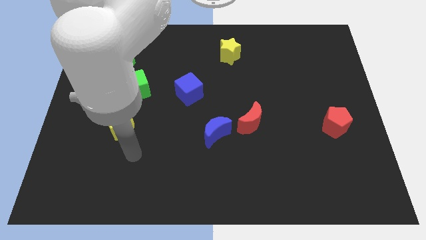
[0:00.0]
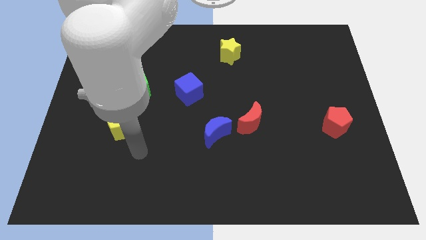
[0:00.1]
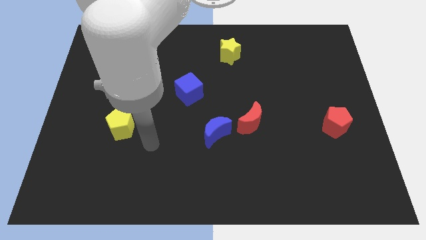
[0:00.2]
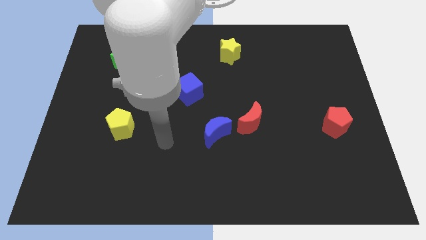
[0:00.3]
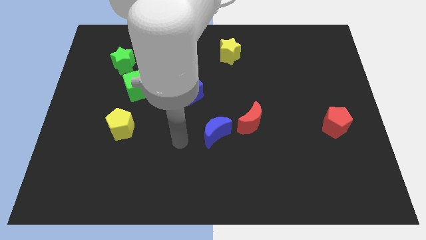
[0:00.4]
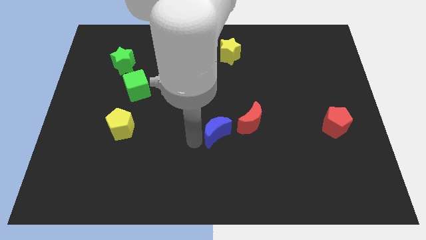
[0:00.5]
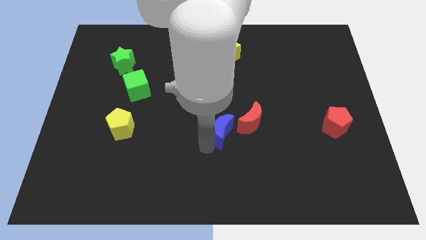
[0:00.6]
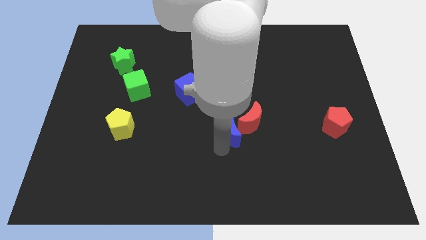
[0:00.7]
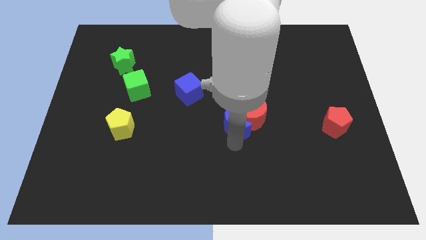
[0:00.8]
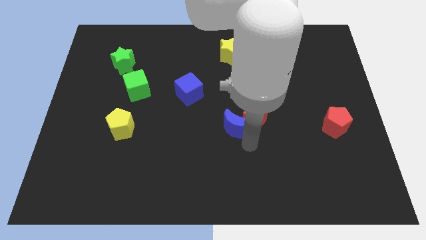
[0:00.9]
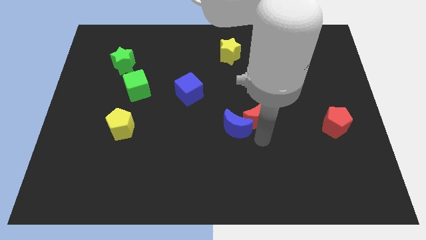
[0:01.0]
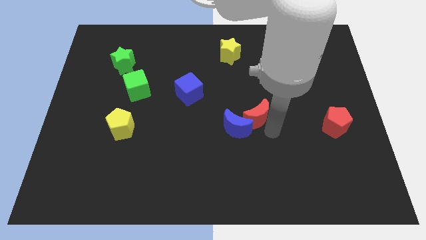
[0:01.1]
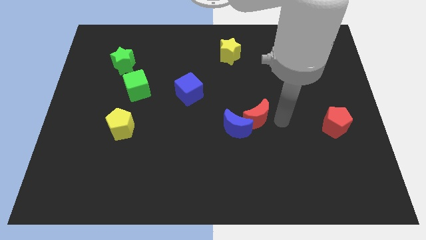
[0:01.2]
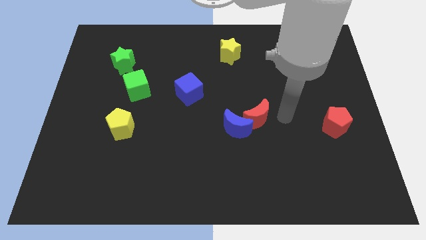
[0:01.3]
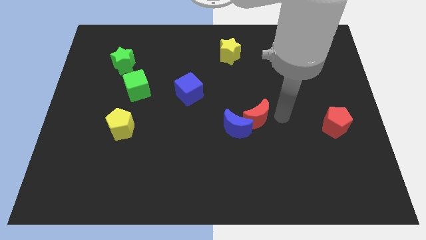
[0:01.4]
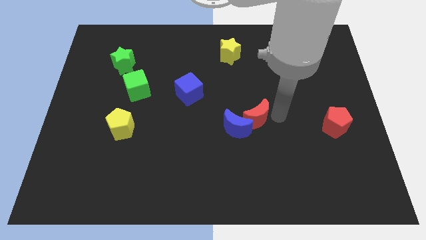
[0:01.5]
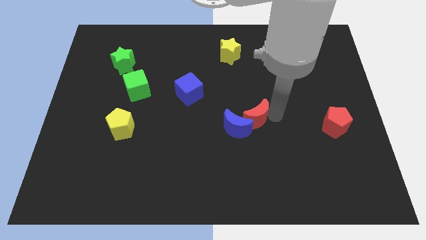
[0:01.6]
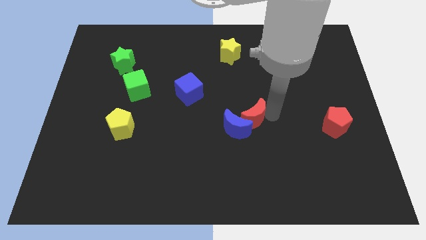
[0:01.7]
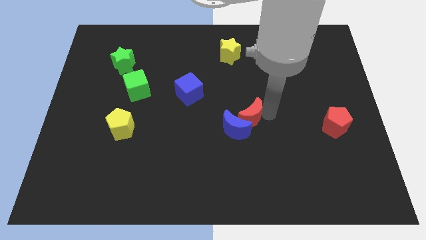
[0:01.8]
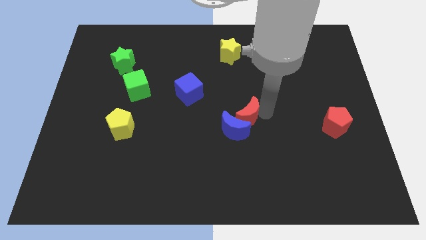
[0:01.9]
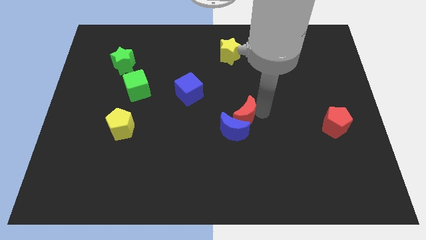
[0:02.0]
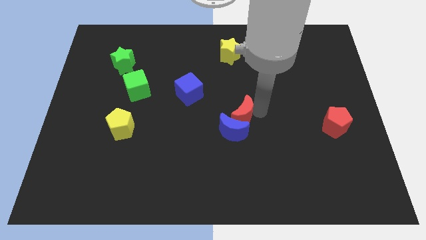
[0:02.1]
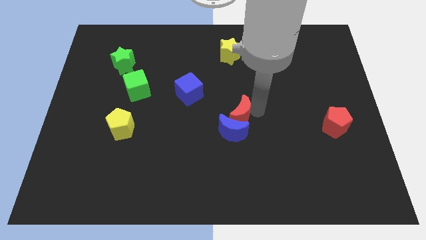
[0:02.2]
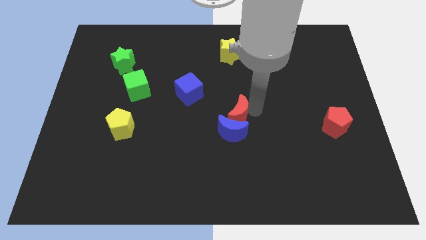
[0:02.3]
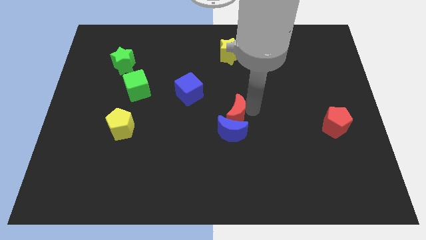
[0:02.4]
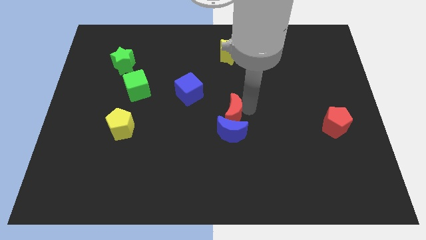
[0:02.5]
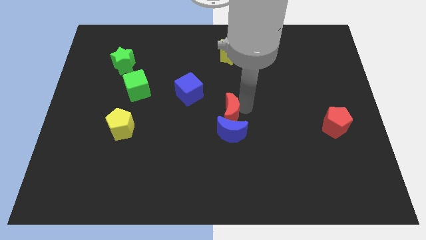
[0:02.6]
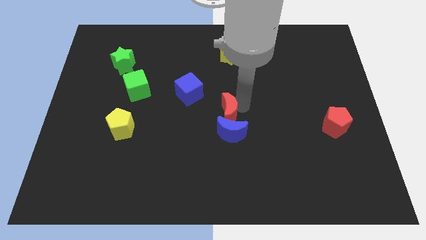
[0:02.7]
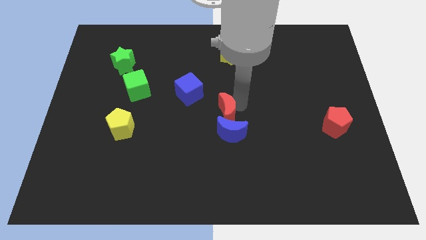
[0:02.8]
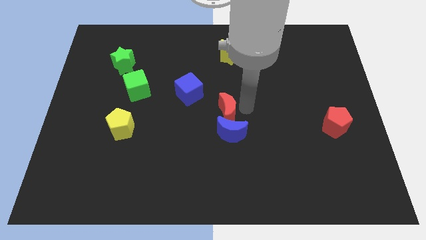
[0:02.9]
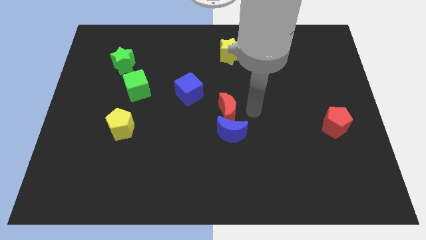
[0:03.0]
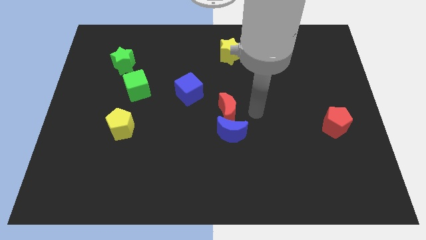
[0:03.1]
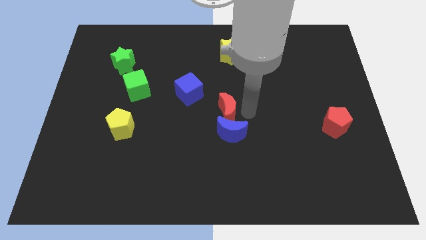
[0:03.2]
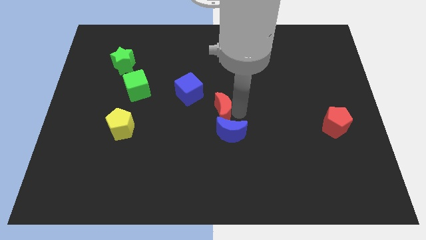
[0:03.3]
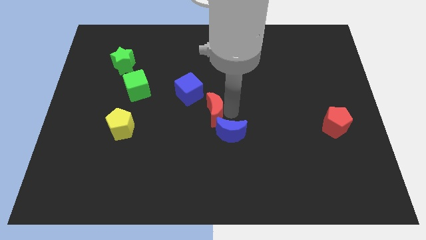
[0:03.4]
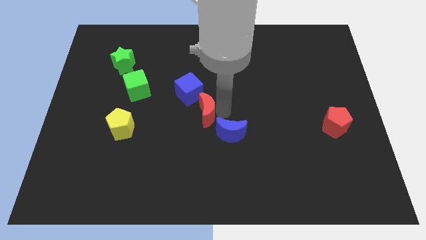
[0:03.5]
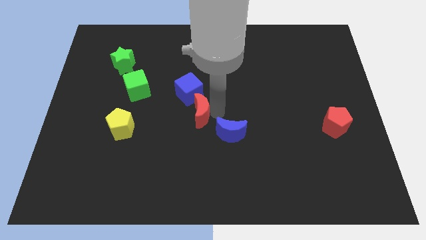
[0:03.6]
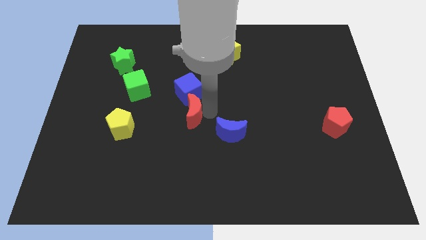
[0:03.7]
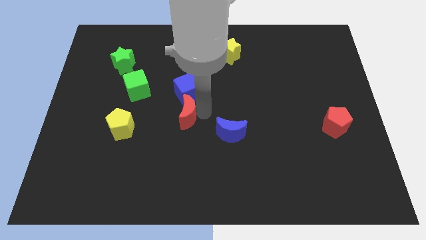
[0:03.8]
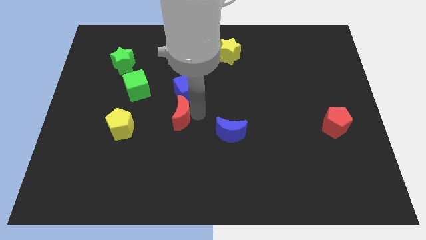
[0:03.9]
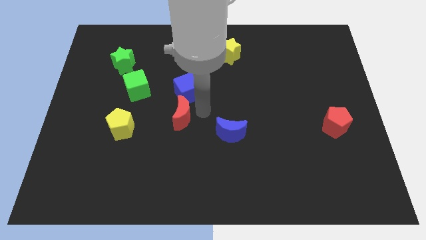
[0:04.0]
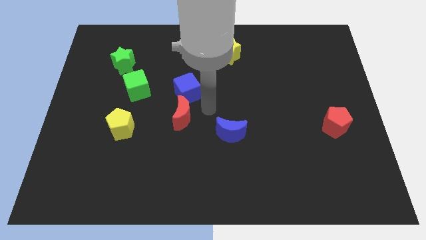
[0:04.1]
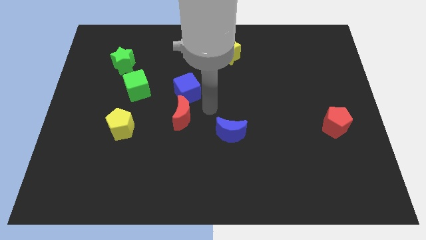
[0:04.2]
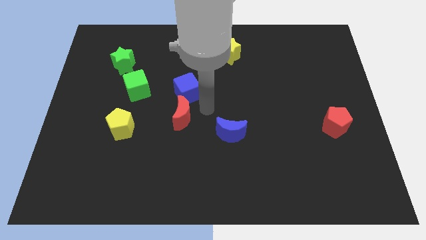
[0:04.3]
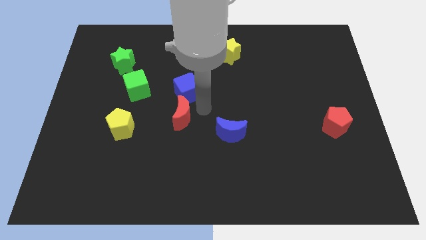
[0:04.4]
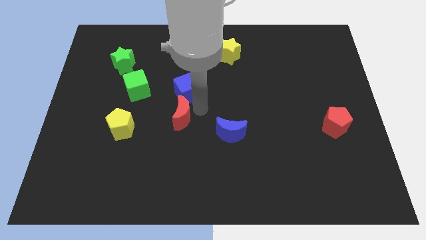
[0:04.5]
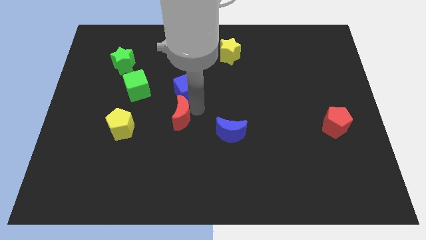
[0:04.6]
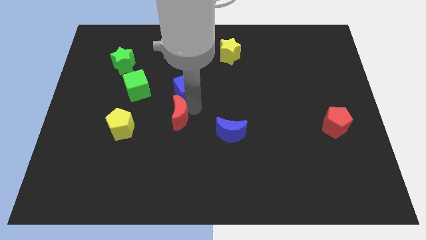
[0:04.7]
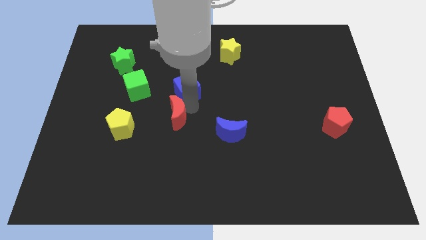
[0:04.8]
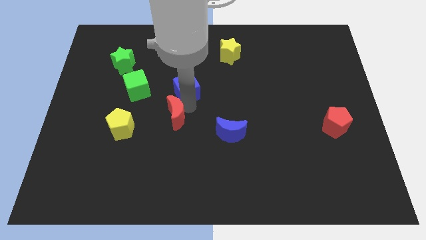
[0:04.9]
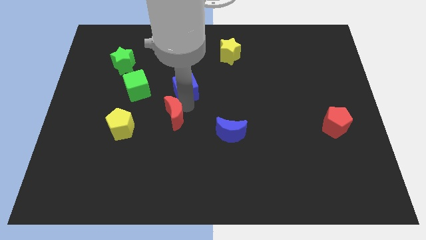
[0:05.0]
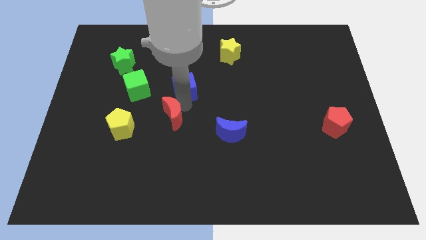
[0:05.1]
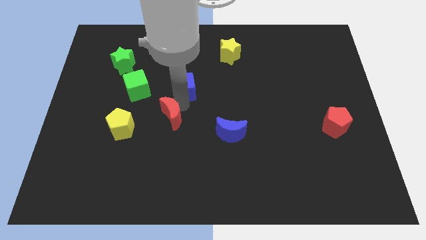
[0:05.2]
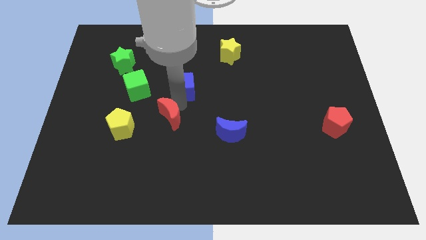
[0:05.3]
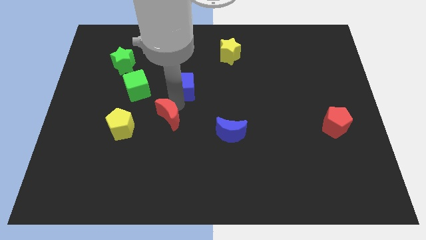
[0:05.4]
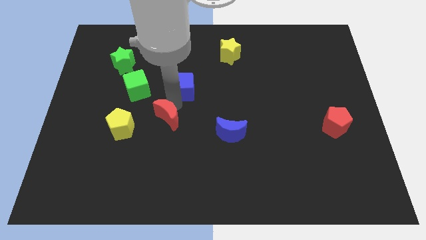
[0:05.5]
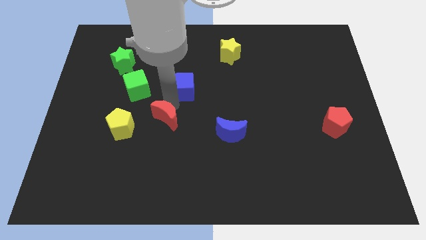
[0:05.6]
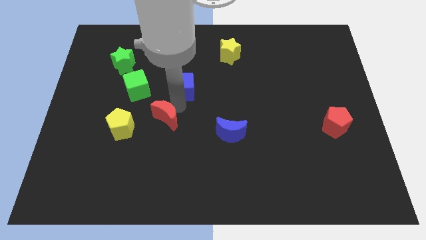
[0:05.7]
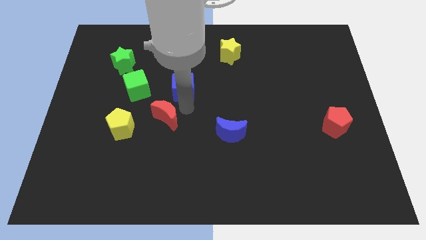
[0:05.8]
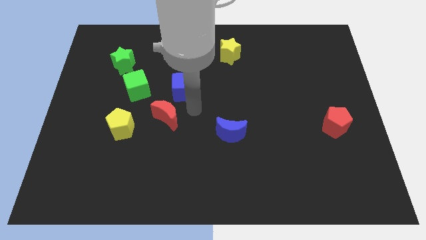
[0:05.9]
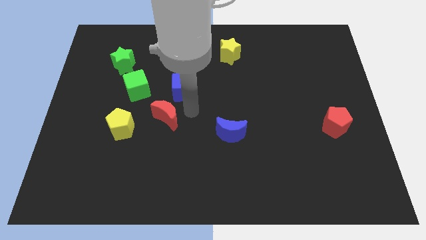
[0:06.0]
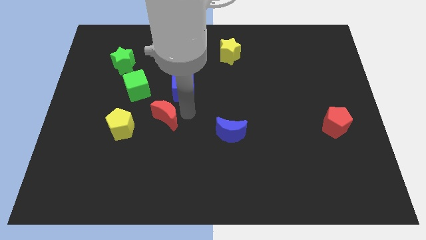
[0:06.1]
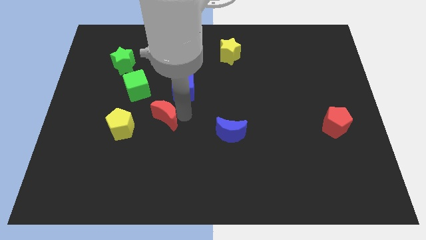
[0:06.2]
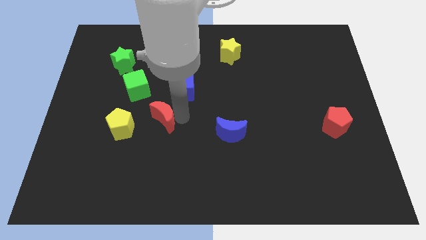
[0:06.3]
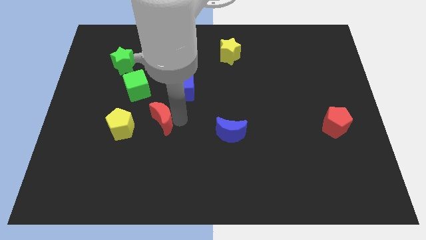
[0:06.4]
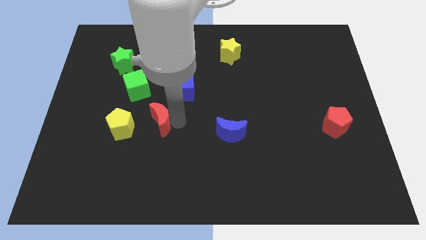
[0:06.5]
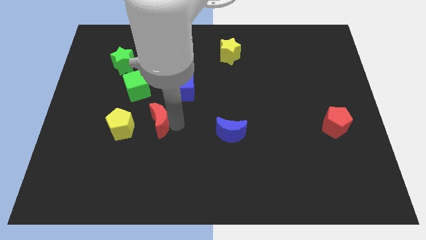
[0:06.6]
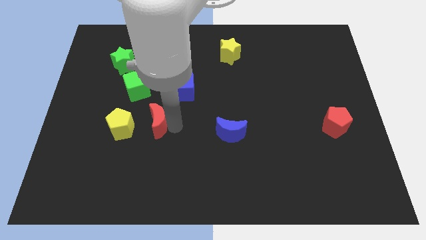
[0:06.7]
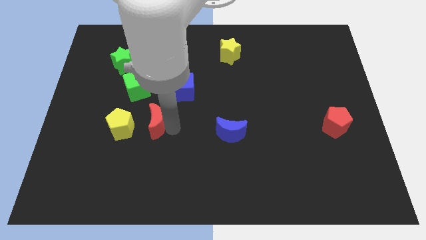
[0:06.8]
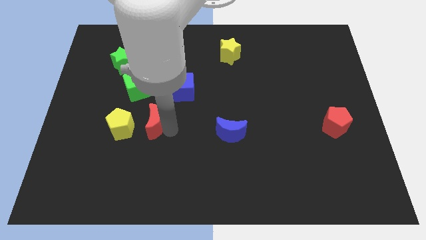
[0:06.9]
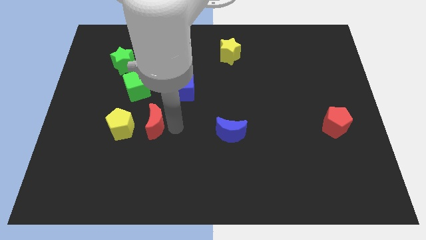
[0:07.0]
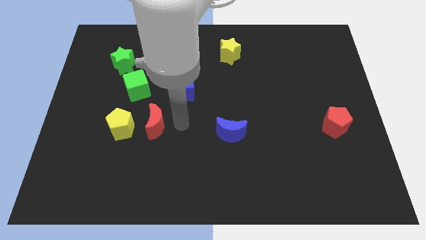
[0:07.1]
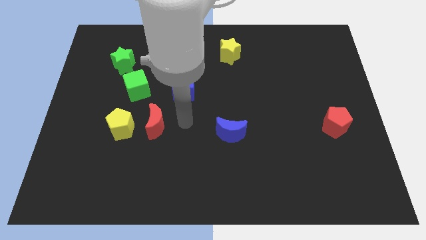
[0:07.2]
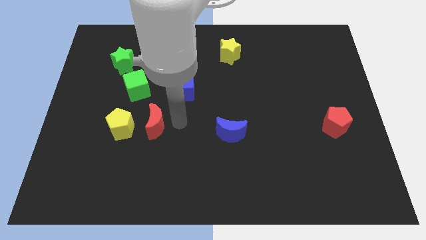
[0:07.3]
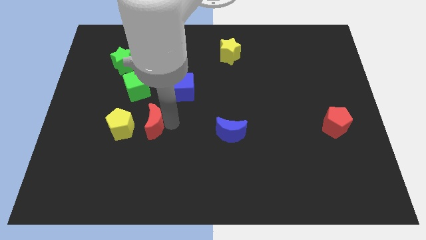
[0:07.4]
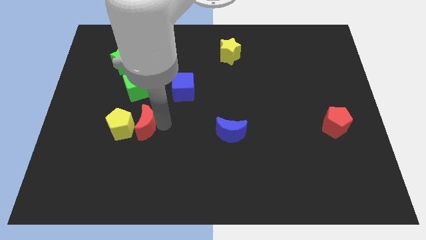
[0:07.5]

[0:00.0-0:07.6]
move the red moon to the yellow pentagon
